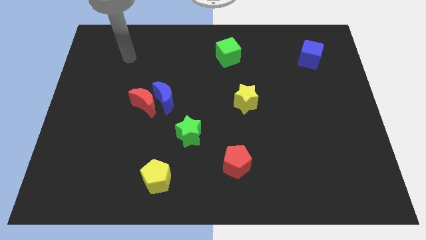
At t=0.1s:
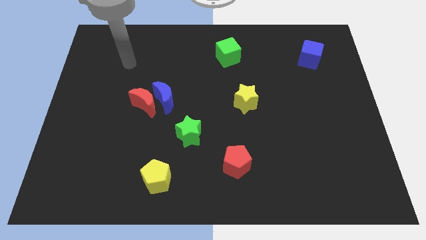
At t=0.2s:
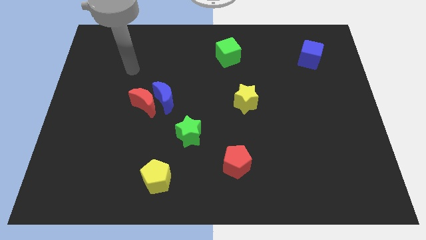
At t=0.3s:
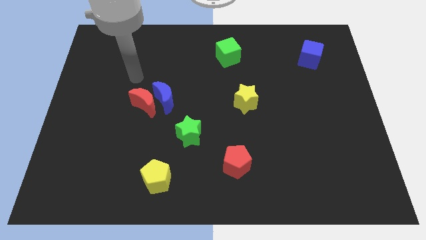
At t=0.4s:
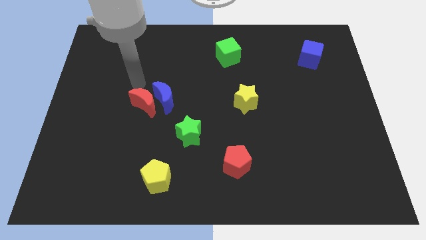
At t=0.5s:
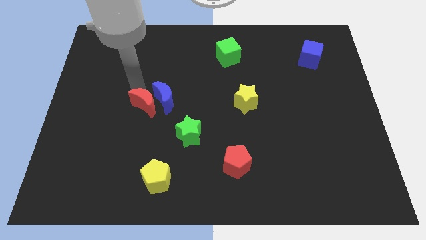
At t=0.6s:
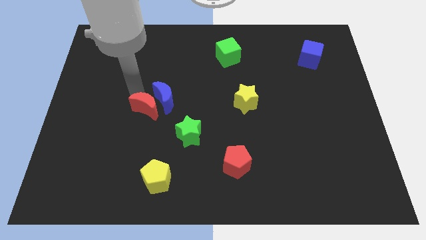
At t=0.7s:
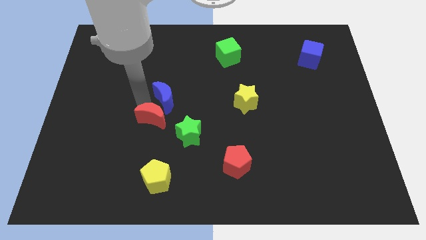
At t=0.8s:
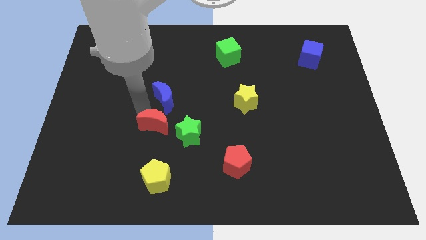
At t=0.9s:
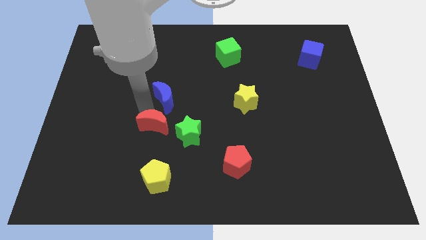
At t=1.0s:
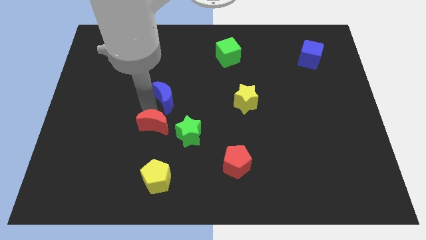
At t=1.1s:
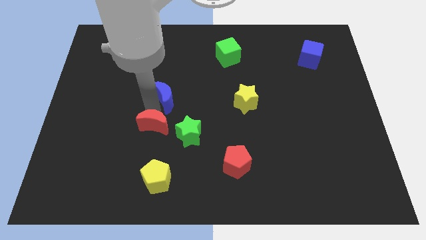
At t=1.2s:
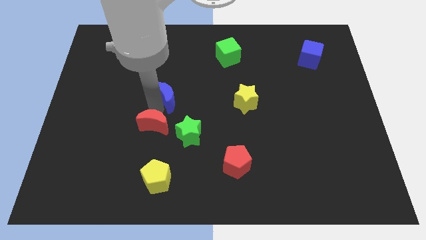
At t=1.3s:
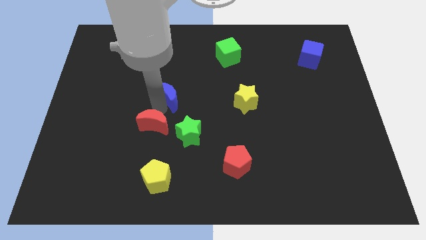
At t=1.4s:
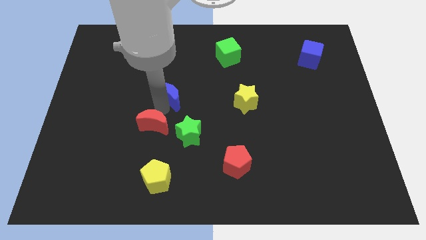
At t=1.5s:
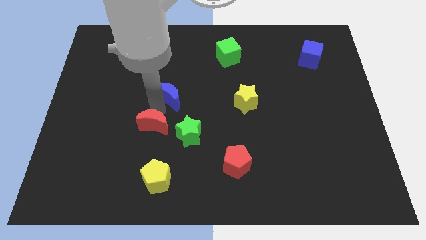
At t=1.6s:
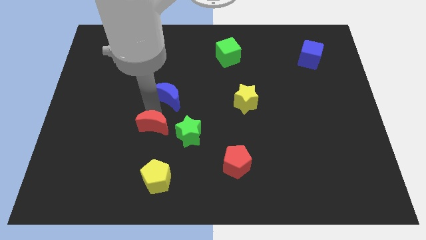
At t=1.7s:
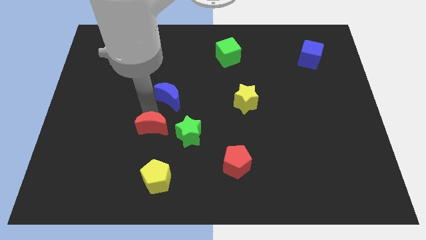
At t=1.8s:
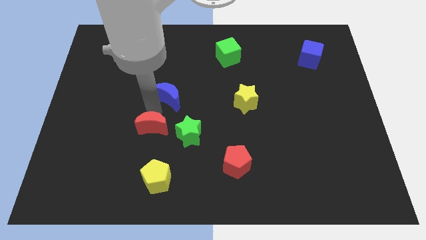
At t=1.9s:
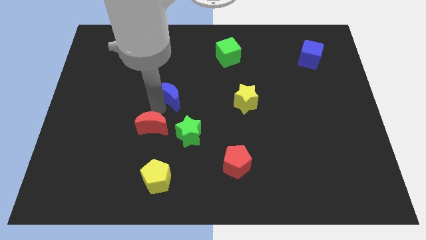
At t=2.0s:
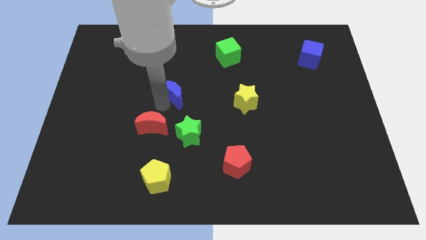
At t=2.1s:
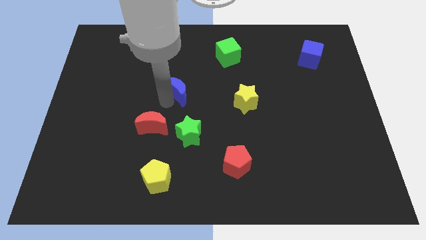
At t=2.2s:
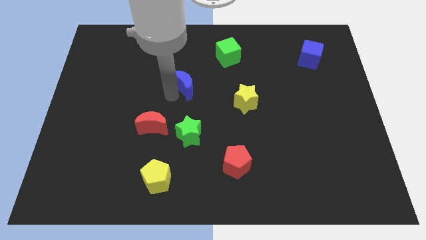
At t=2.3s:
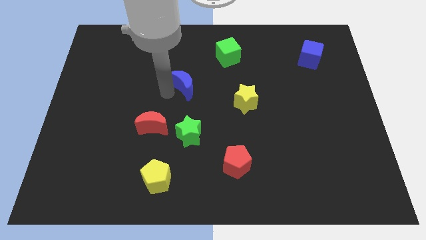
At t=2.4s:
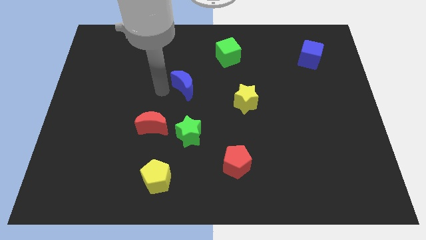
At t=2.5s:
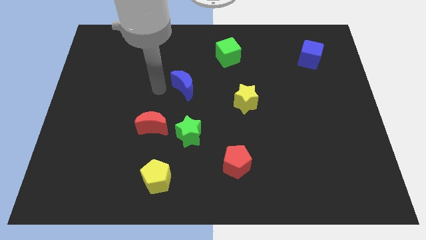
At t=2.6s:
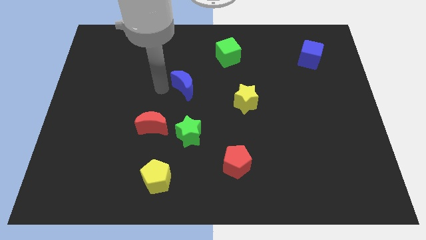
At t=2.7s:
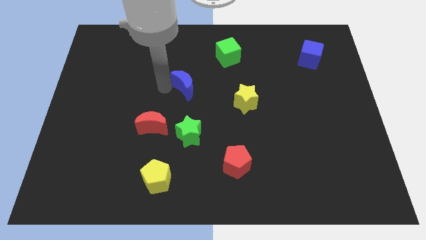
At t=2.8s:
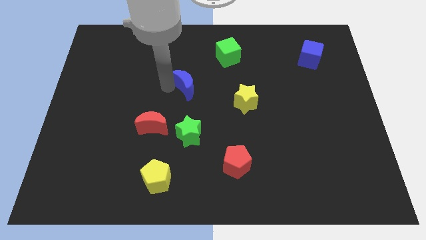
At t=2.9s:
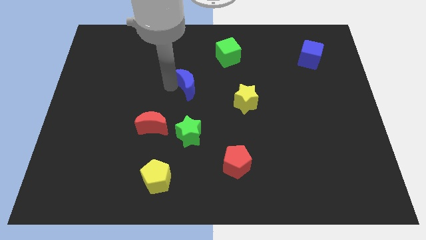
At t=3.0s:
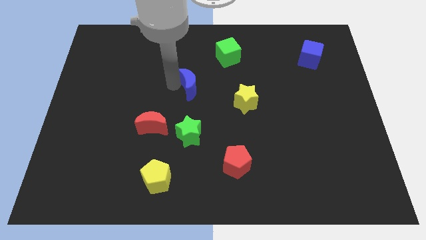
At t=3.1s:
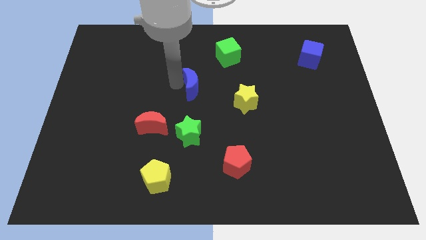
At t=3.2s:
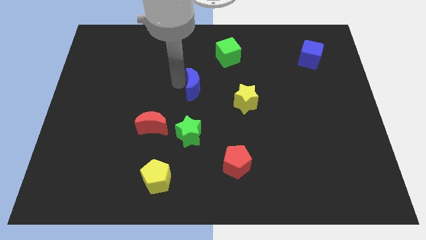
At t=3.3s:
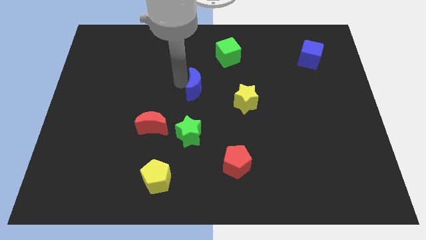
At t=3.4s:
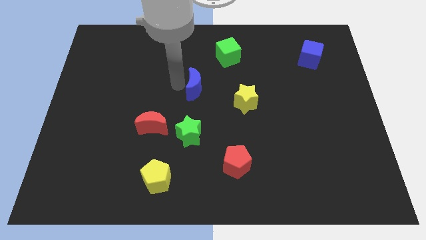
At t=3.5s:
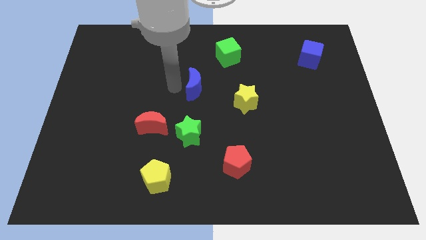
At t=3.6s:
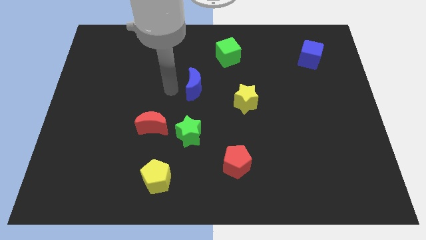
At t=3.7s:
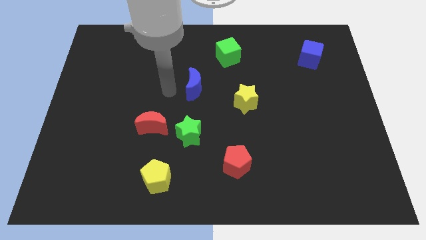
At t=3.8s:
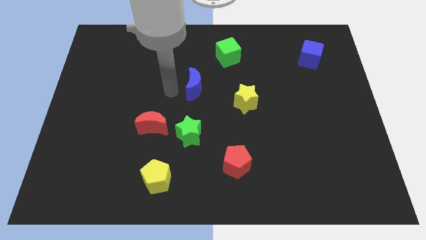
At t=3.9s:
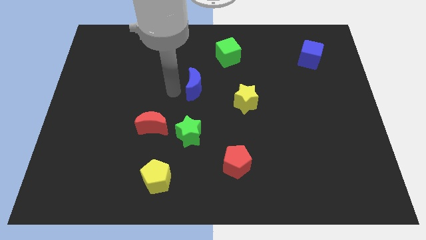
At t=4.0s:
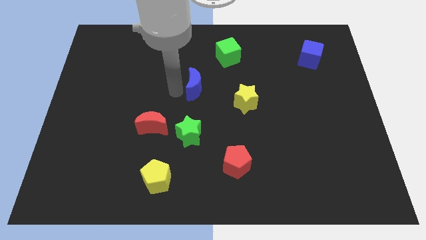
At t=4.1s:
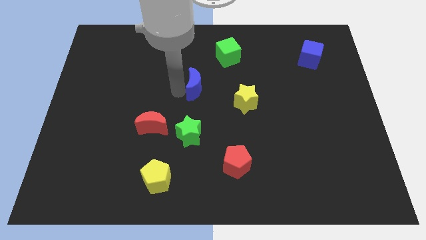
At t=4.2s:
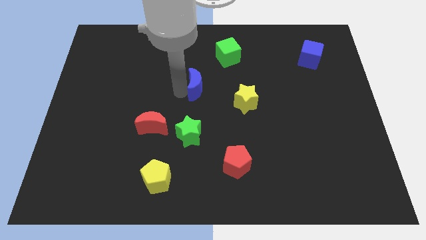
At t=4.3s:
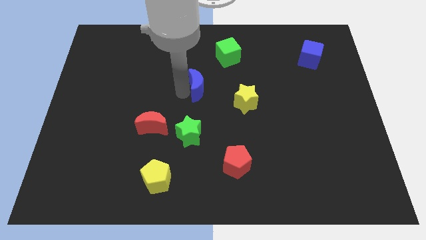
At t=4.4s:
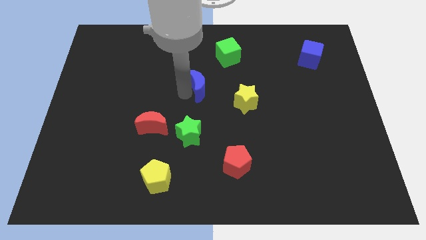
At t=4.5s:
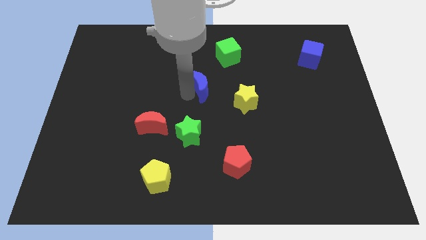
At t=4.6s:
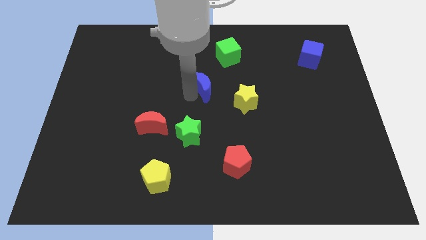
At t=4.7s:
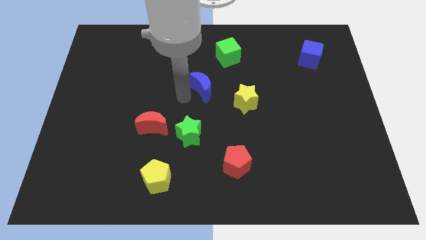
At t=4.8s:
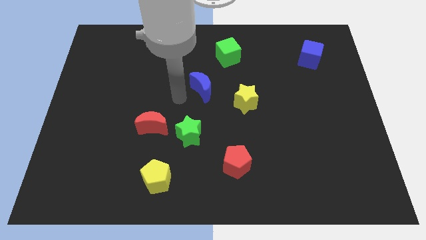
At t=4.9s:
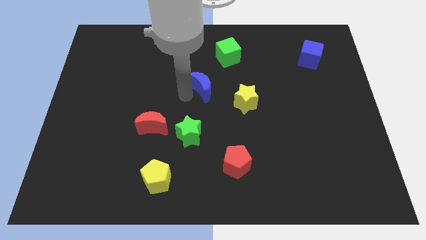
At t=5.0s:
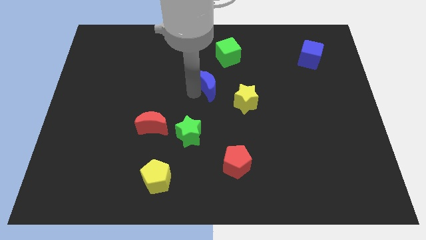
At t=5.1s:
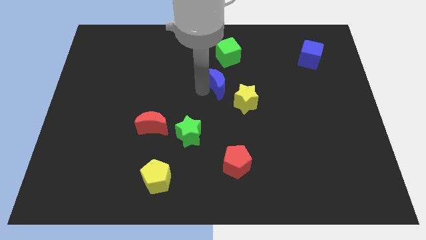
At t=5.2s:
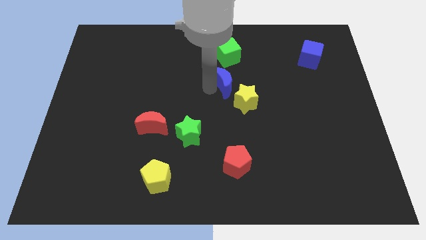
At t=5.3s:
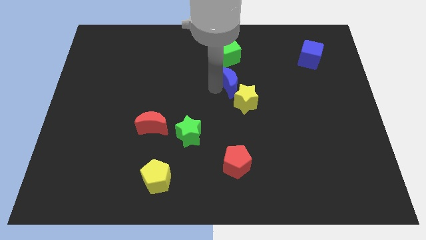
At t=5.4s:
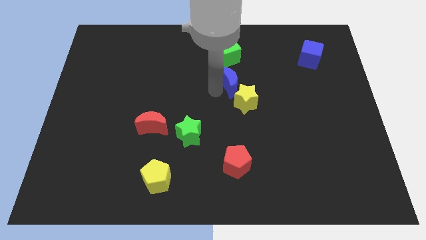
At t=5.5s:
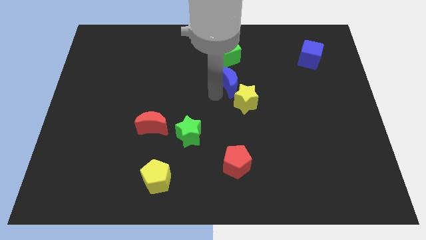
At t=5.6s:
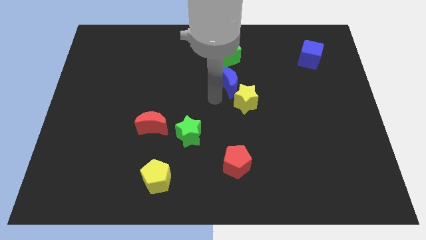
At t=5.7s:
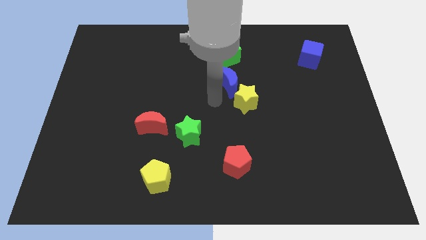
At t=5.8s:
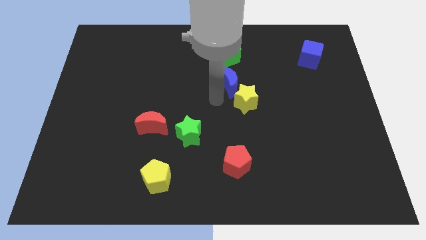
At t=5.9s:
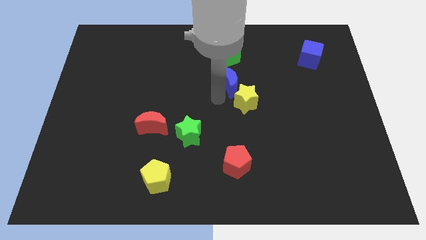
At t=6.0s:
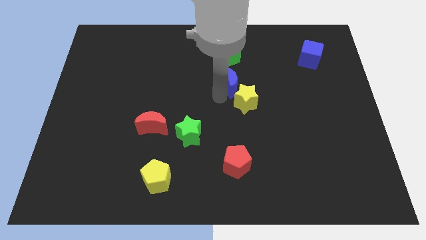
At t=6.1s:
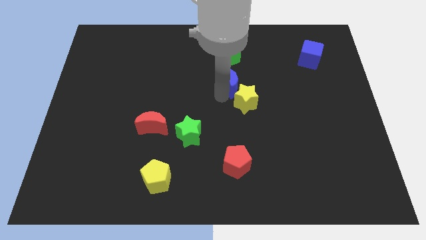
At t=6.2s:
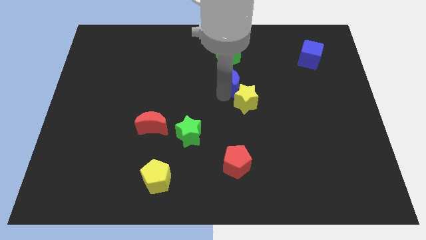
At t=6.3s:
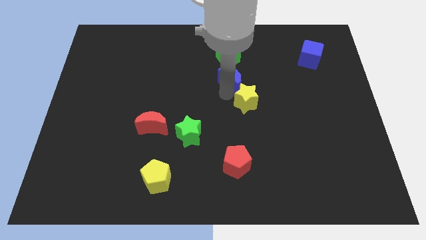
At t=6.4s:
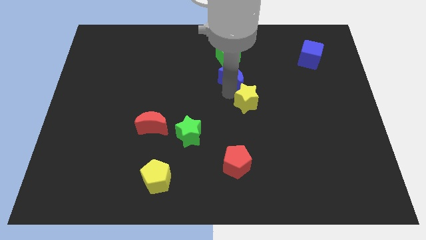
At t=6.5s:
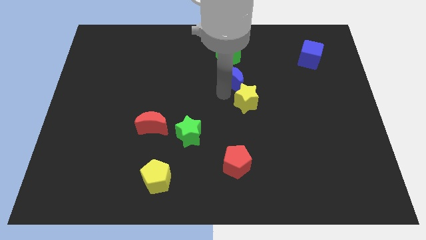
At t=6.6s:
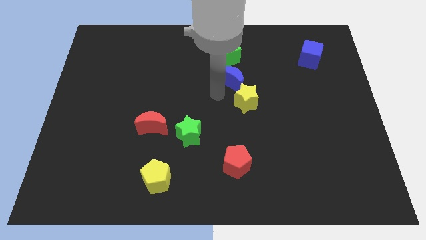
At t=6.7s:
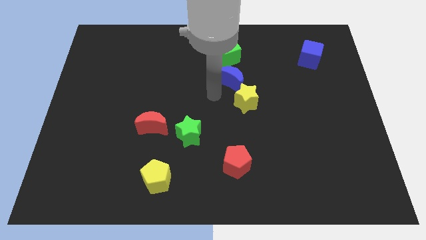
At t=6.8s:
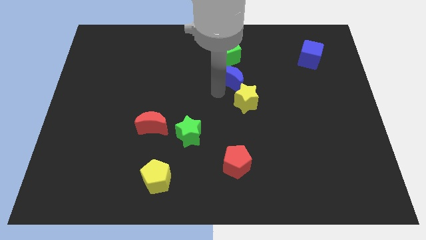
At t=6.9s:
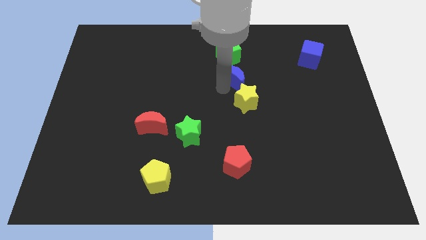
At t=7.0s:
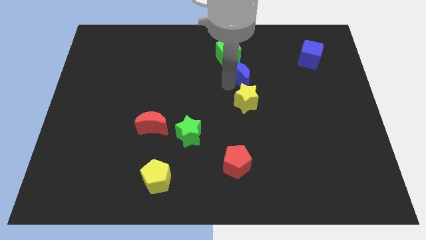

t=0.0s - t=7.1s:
put the blue moon diagonally down and to the right of the green cube
